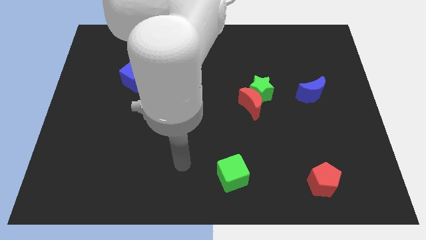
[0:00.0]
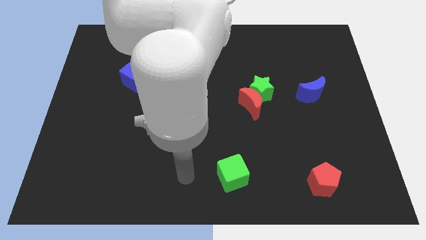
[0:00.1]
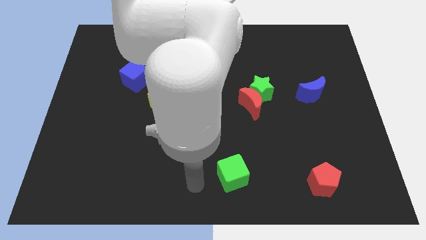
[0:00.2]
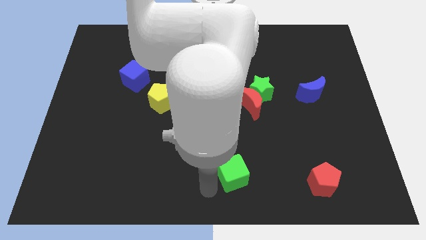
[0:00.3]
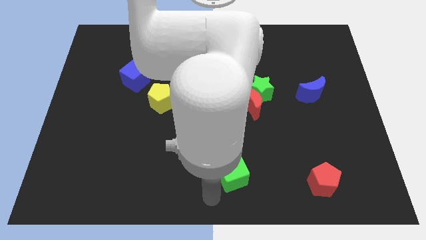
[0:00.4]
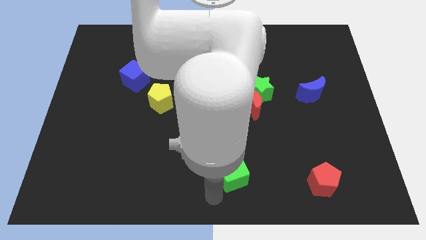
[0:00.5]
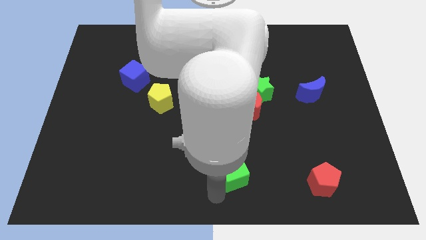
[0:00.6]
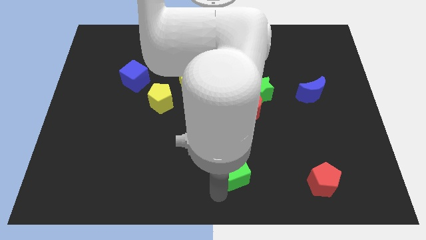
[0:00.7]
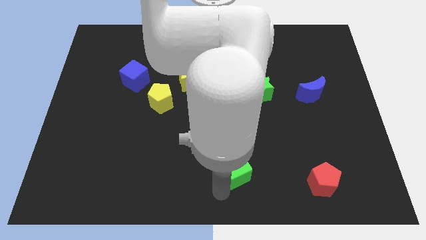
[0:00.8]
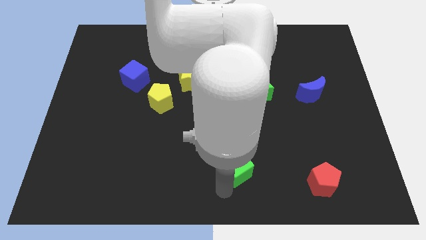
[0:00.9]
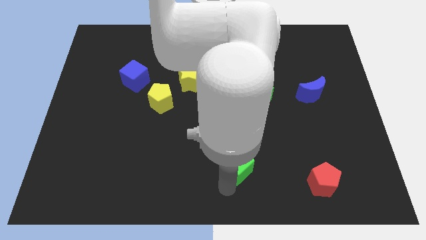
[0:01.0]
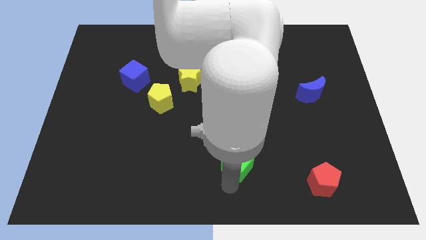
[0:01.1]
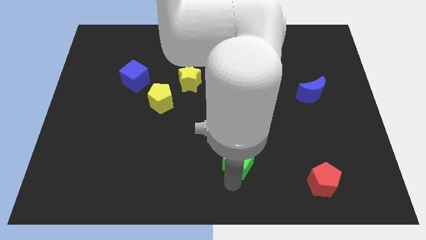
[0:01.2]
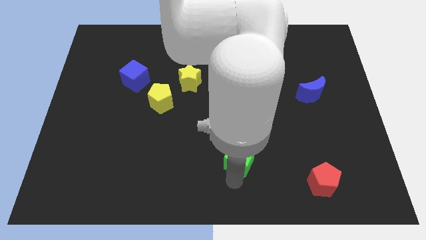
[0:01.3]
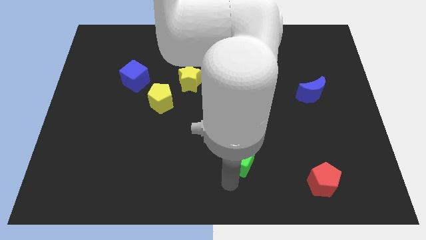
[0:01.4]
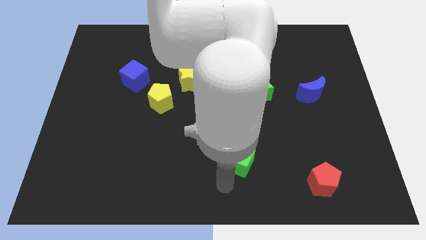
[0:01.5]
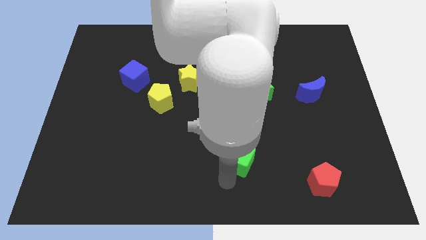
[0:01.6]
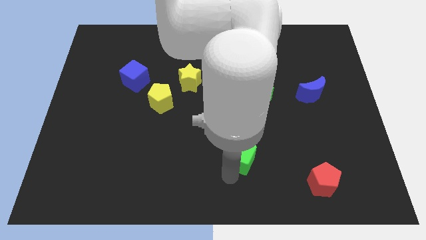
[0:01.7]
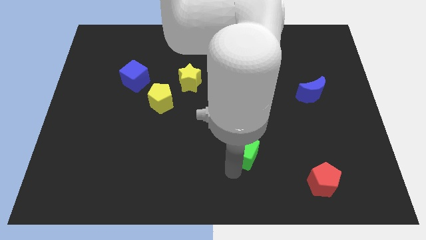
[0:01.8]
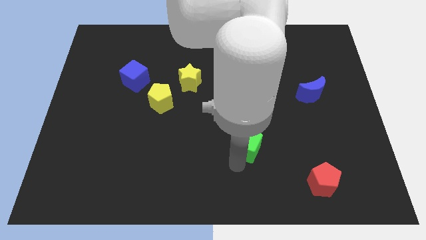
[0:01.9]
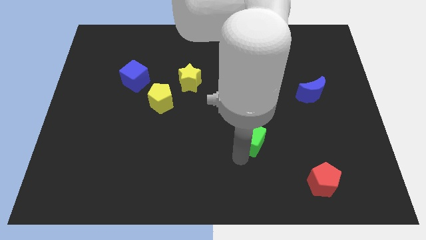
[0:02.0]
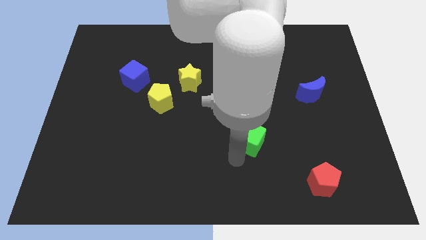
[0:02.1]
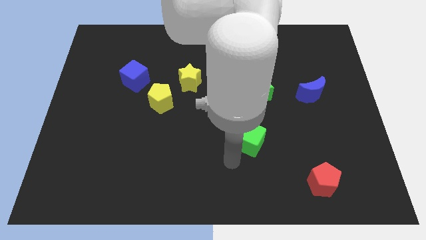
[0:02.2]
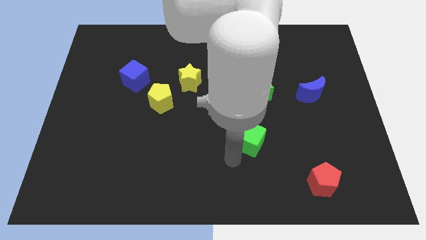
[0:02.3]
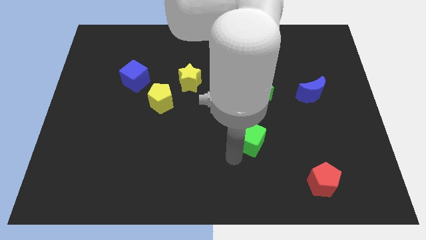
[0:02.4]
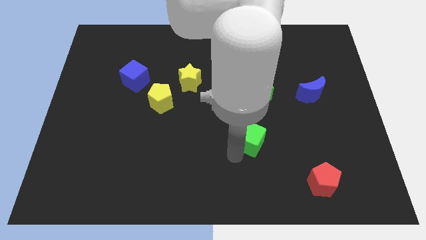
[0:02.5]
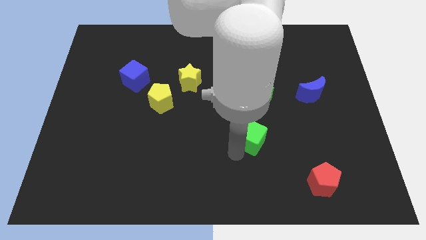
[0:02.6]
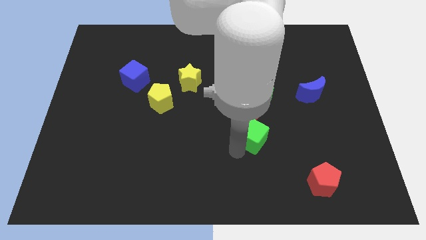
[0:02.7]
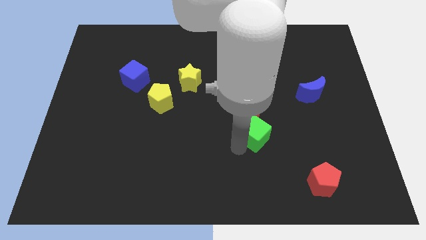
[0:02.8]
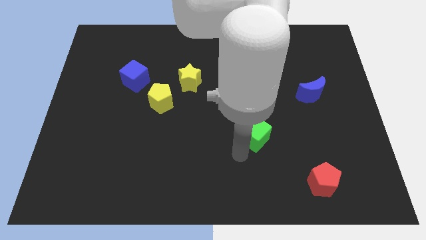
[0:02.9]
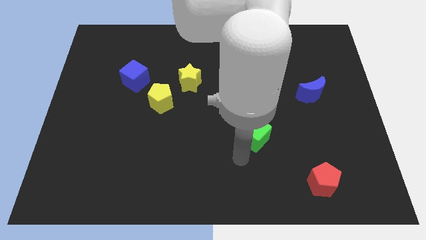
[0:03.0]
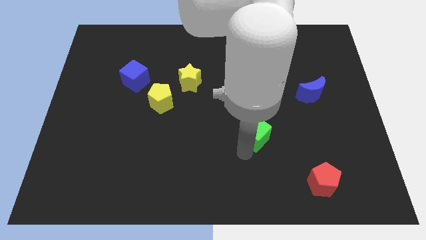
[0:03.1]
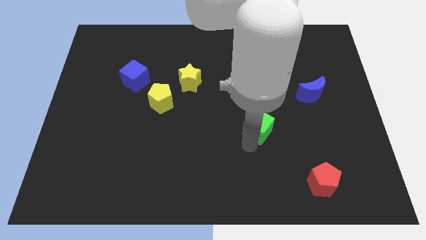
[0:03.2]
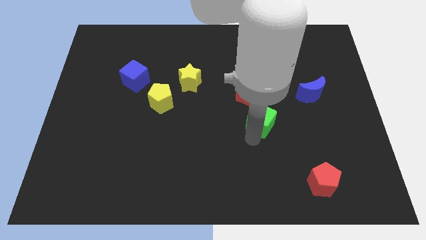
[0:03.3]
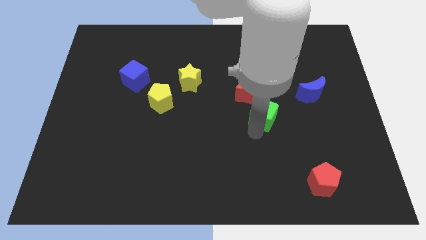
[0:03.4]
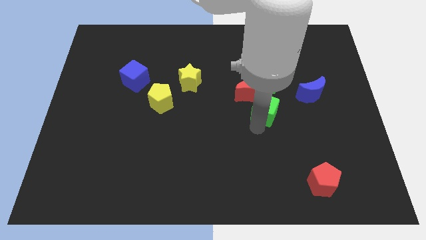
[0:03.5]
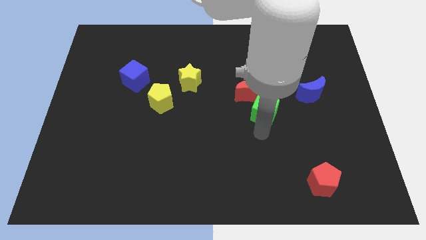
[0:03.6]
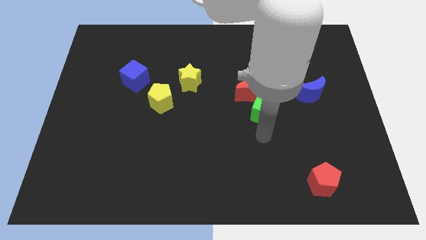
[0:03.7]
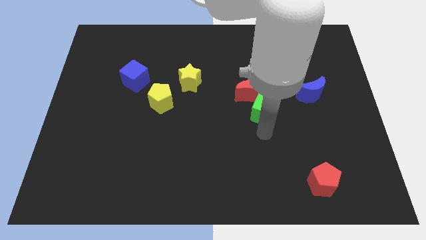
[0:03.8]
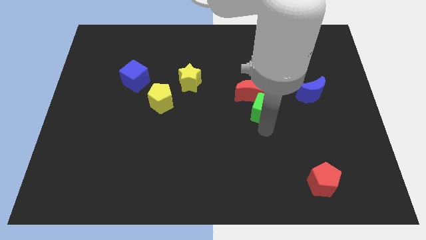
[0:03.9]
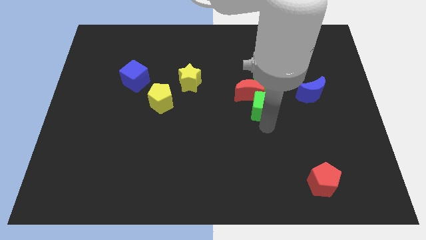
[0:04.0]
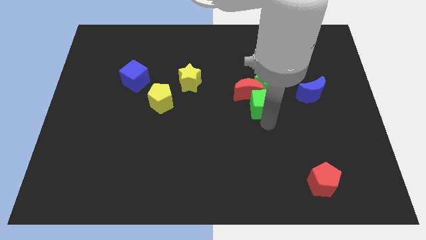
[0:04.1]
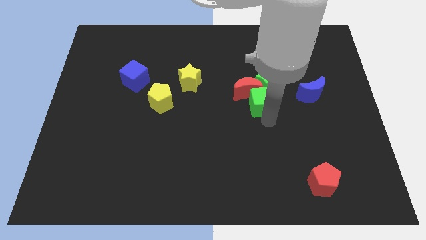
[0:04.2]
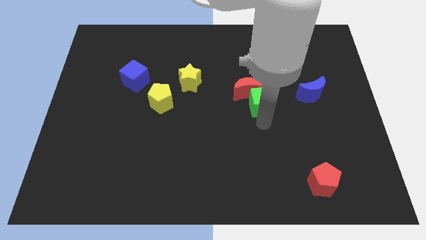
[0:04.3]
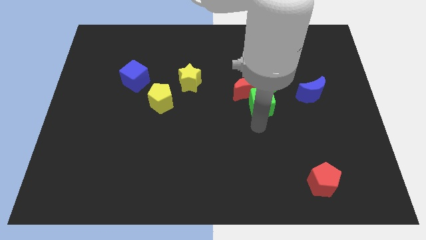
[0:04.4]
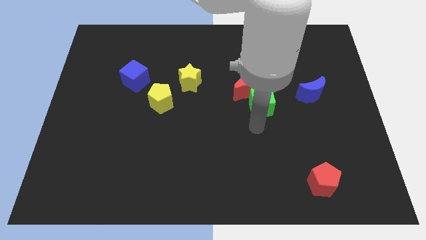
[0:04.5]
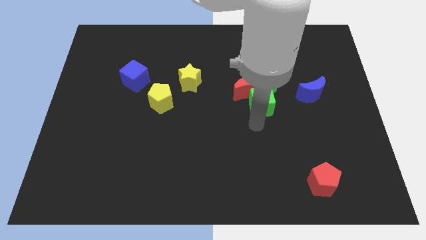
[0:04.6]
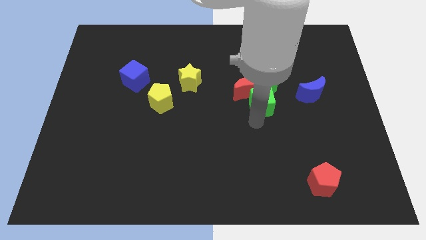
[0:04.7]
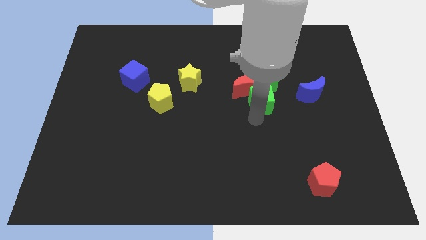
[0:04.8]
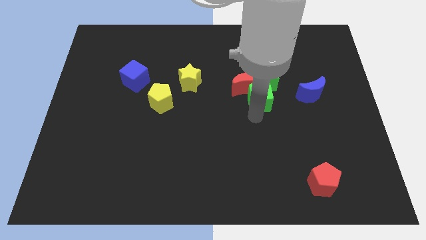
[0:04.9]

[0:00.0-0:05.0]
slide the green cube close to the green star

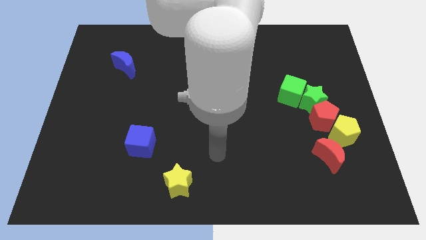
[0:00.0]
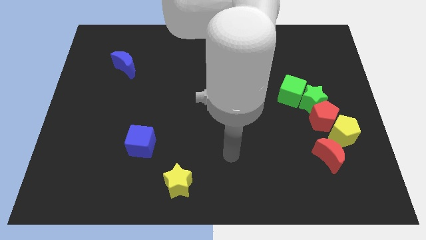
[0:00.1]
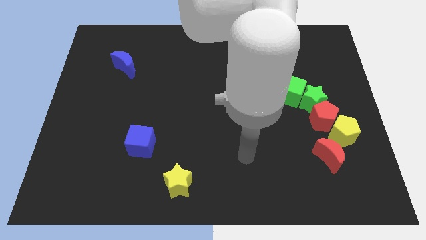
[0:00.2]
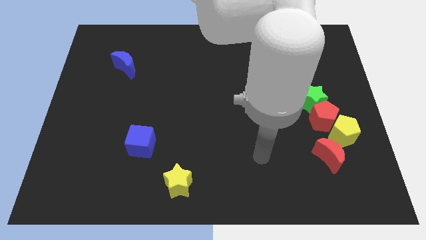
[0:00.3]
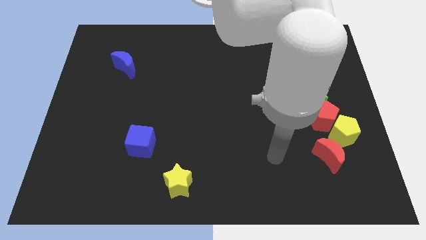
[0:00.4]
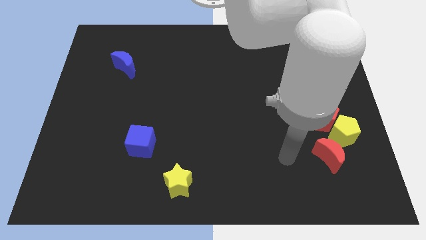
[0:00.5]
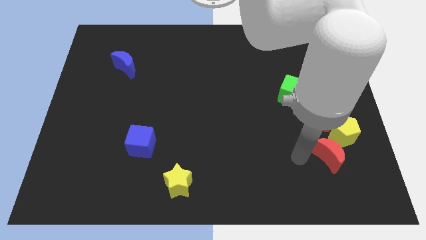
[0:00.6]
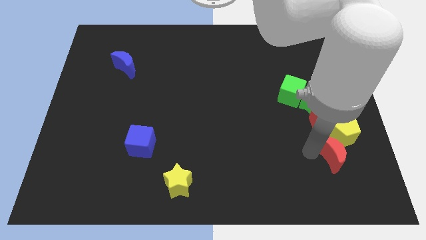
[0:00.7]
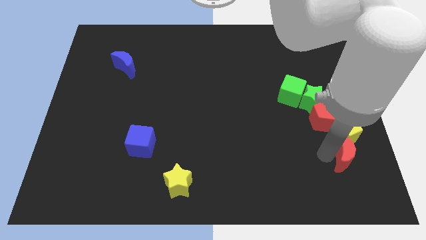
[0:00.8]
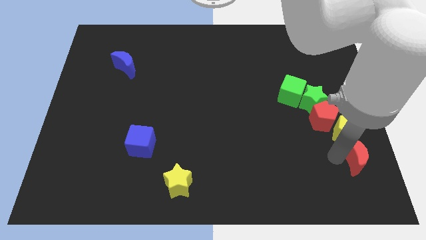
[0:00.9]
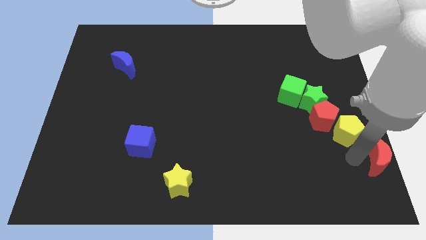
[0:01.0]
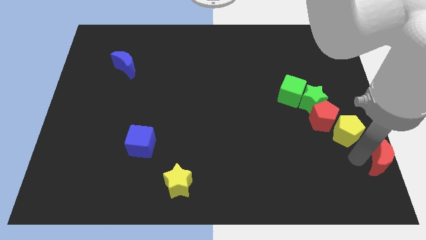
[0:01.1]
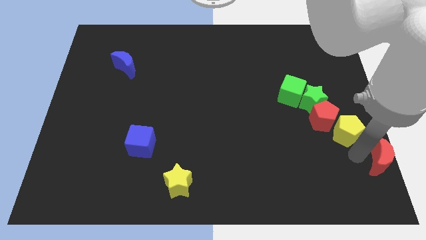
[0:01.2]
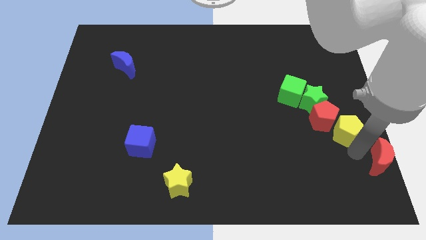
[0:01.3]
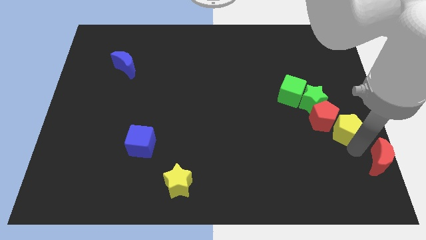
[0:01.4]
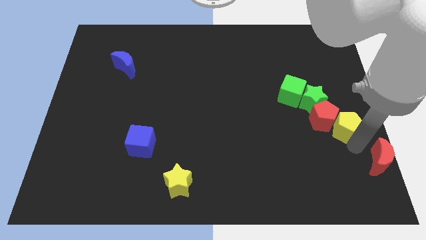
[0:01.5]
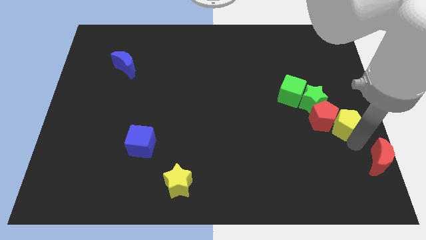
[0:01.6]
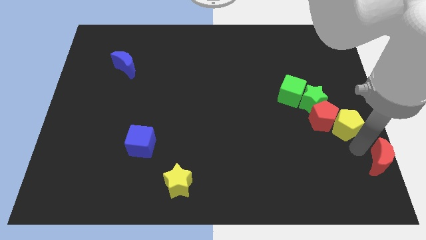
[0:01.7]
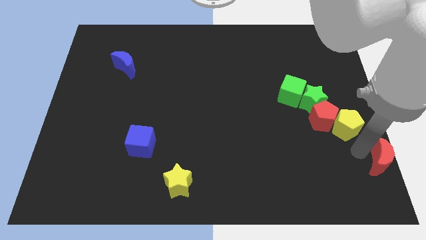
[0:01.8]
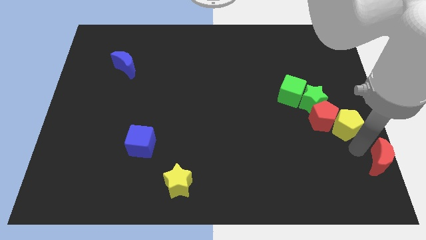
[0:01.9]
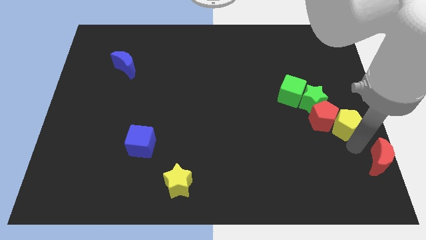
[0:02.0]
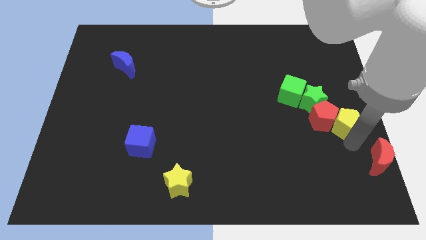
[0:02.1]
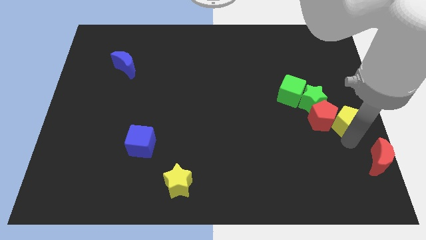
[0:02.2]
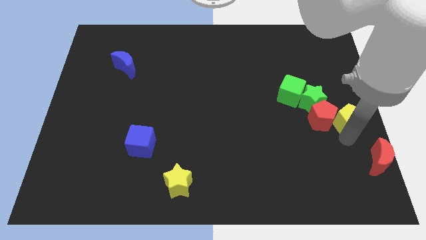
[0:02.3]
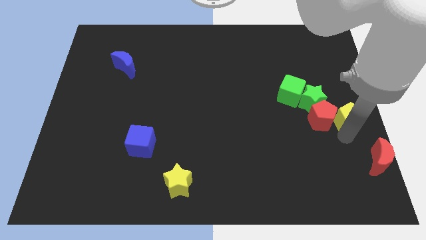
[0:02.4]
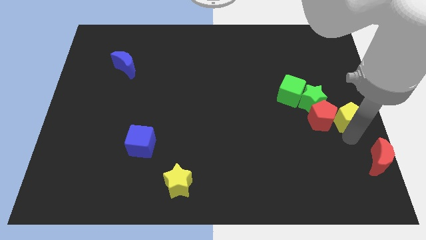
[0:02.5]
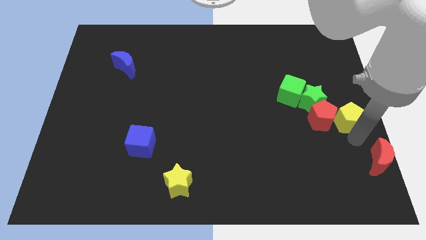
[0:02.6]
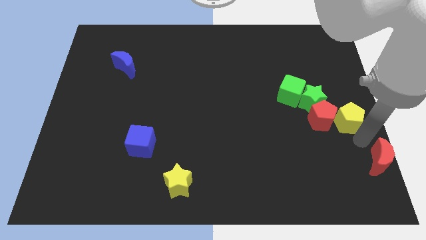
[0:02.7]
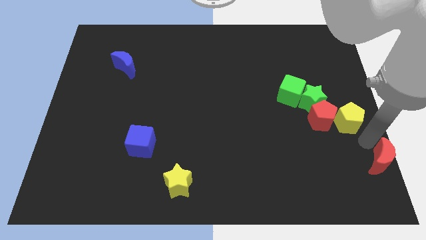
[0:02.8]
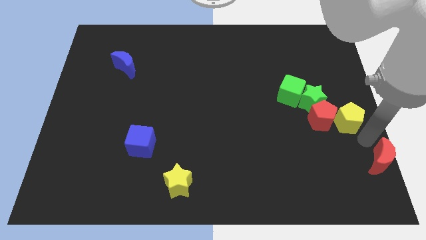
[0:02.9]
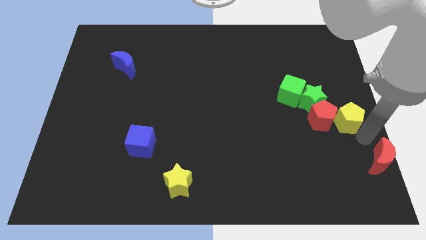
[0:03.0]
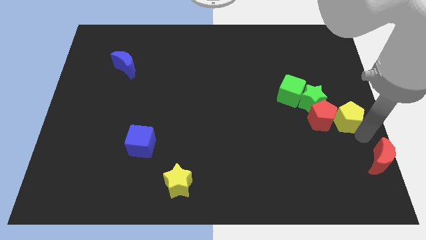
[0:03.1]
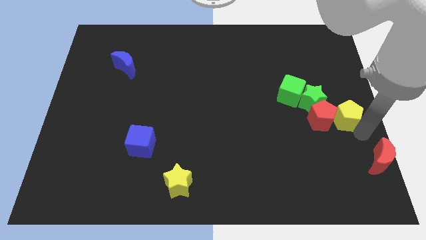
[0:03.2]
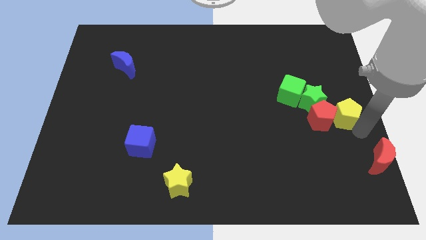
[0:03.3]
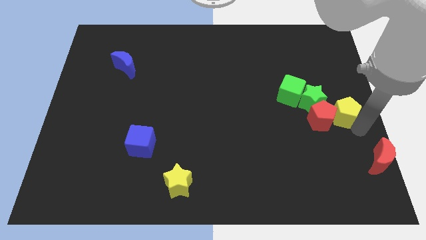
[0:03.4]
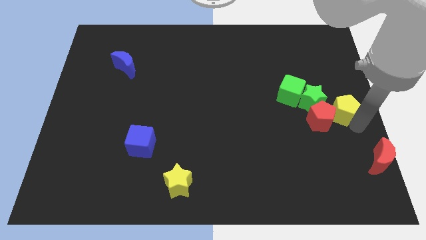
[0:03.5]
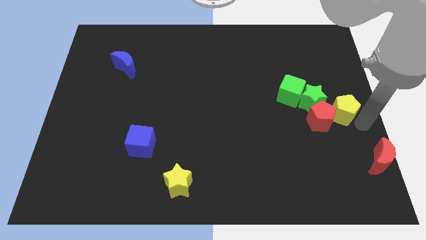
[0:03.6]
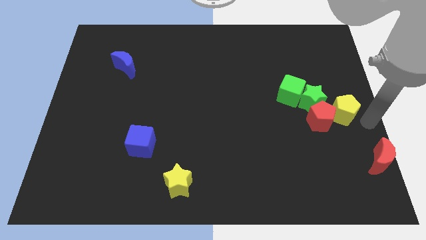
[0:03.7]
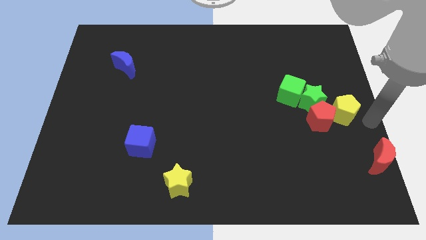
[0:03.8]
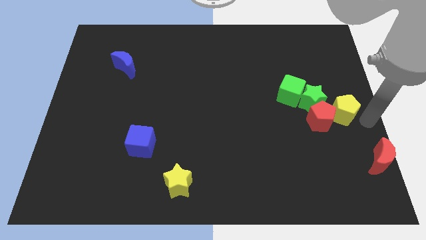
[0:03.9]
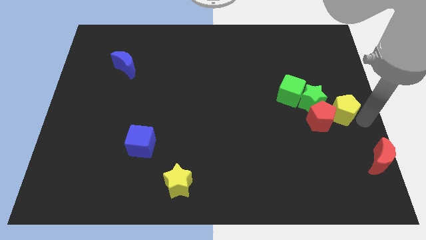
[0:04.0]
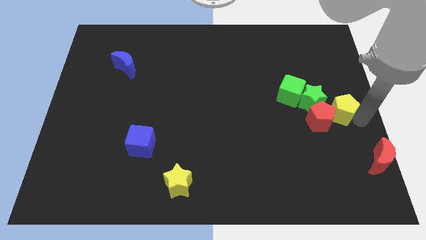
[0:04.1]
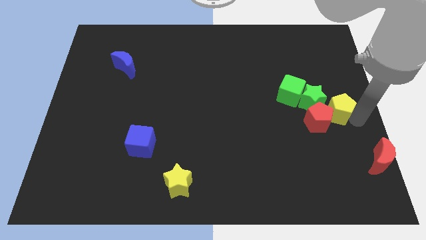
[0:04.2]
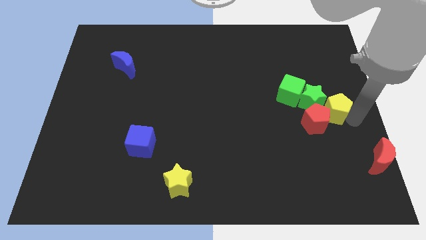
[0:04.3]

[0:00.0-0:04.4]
push the yellow pentagon next to the green star
